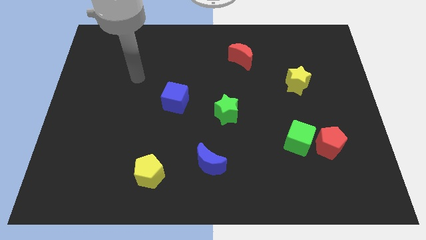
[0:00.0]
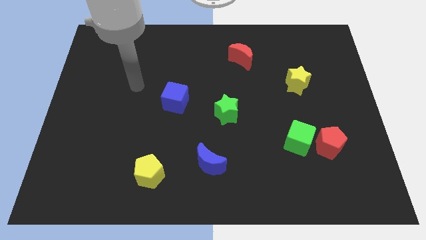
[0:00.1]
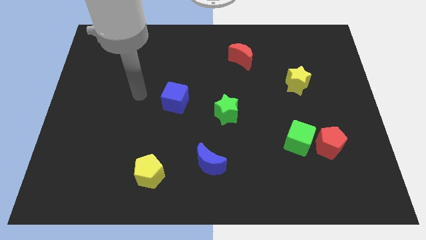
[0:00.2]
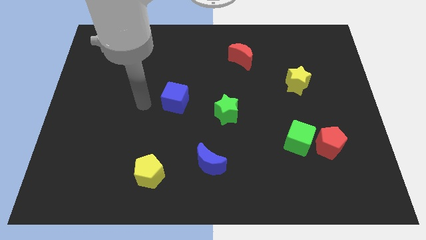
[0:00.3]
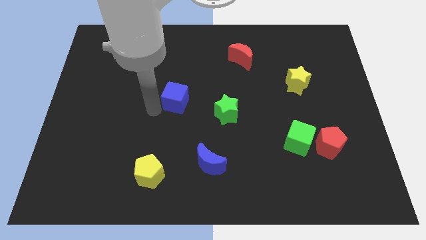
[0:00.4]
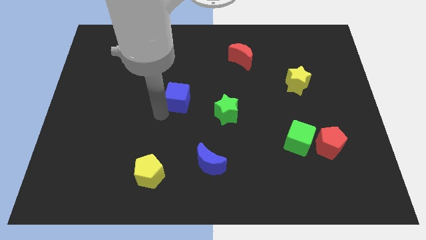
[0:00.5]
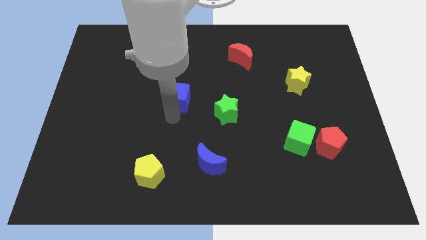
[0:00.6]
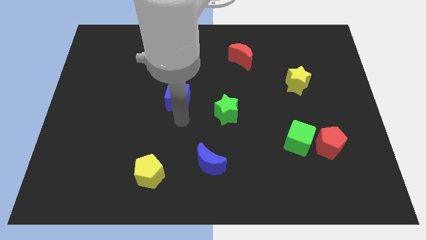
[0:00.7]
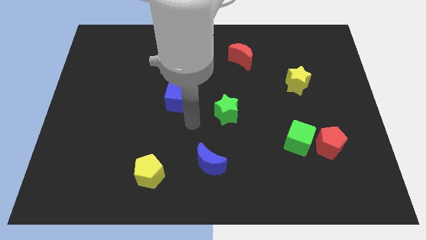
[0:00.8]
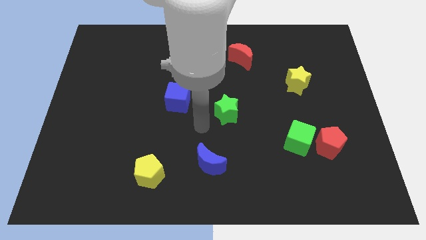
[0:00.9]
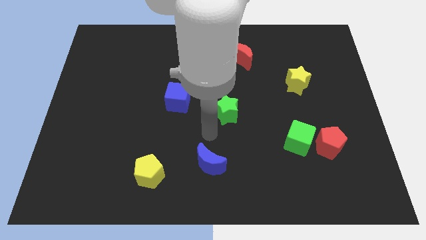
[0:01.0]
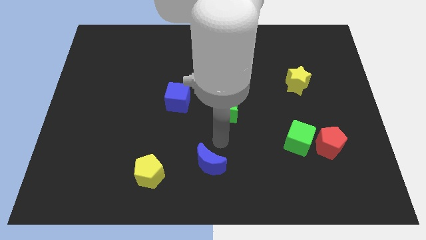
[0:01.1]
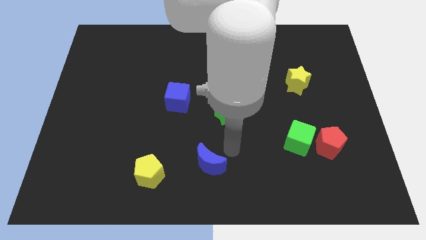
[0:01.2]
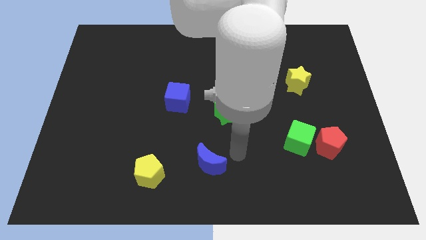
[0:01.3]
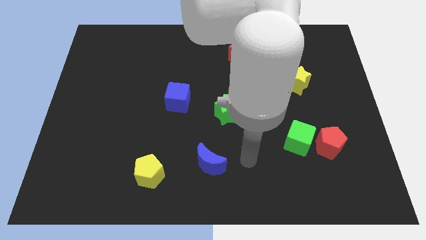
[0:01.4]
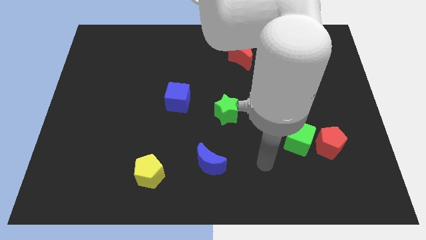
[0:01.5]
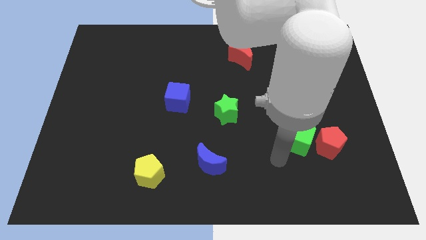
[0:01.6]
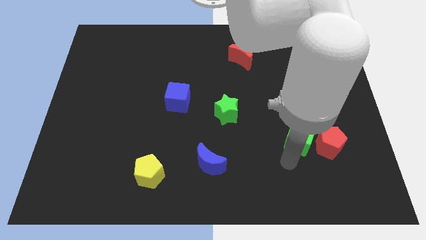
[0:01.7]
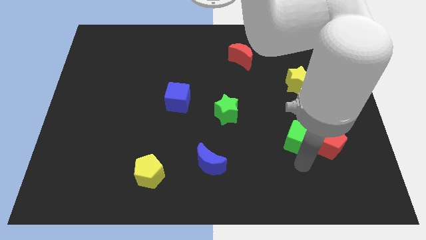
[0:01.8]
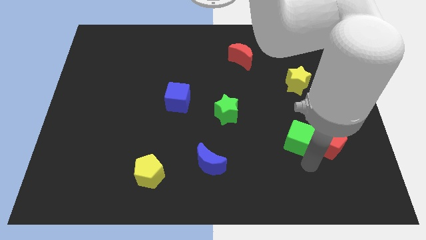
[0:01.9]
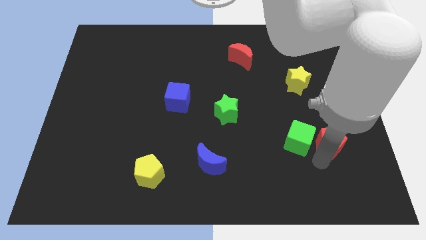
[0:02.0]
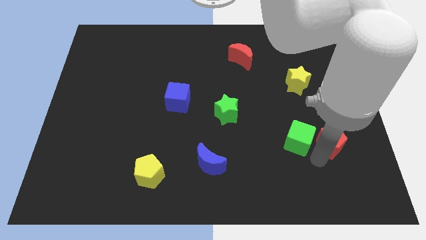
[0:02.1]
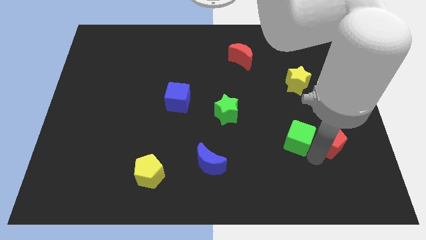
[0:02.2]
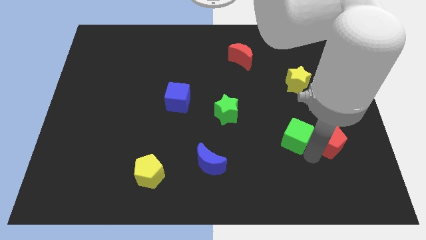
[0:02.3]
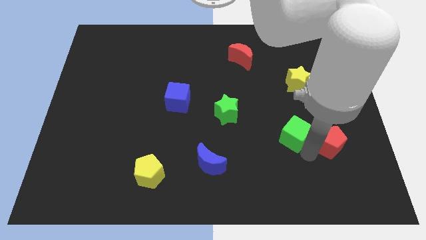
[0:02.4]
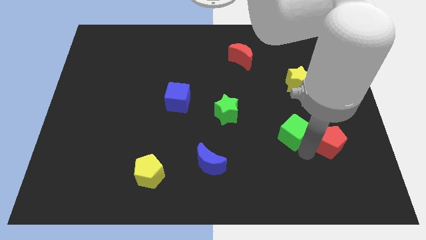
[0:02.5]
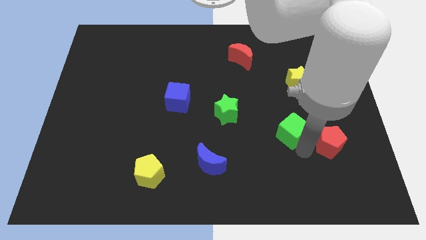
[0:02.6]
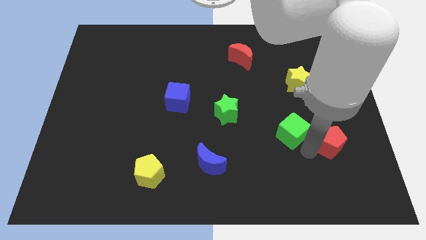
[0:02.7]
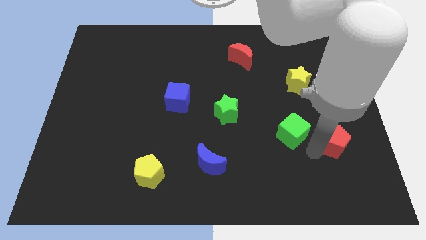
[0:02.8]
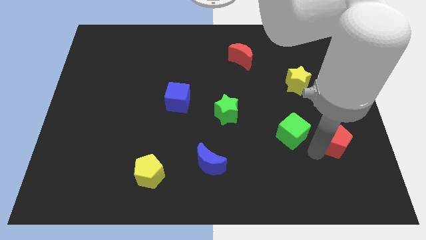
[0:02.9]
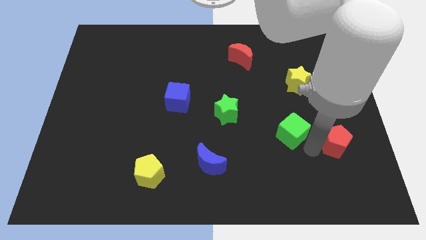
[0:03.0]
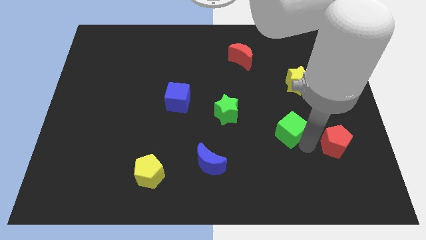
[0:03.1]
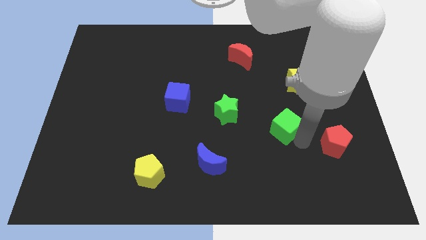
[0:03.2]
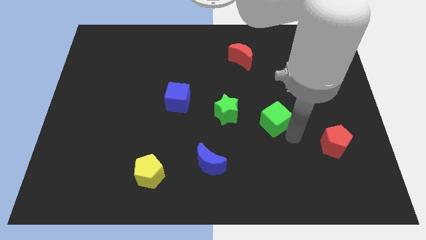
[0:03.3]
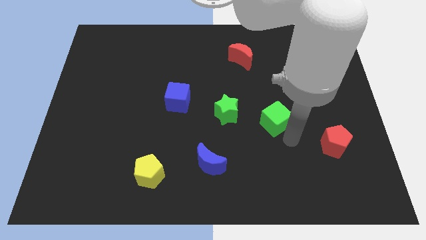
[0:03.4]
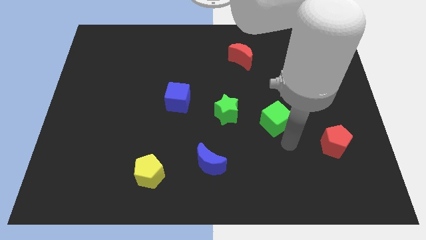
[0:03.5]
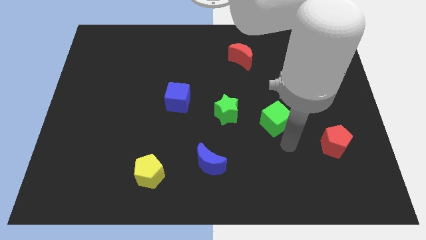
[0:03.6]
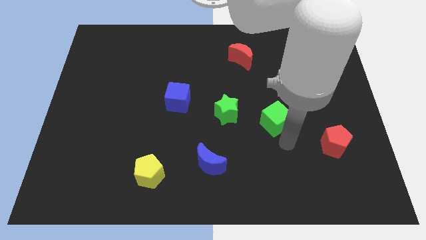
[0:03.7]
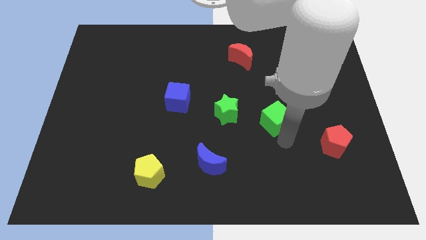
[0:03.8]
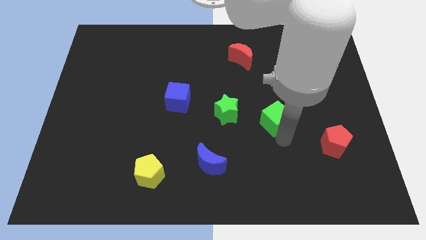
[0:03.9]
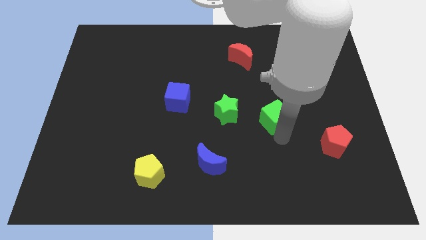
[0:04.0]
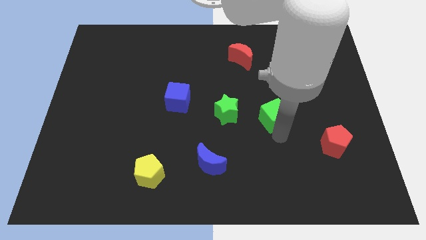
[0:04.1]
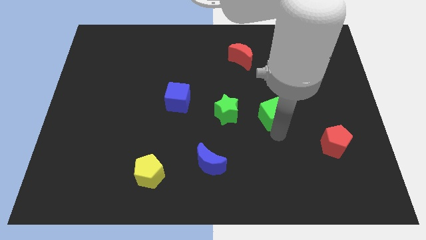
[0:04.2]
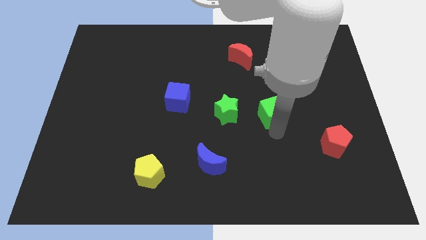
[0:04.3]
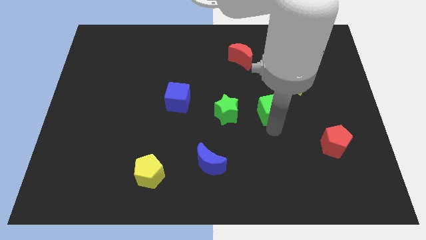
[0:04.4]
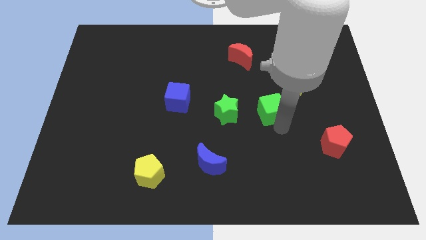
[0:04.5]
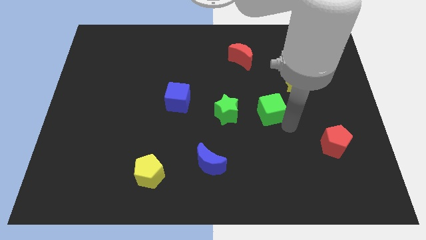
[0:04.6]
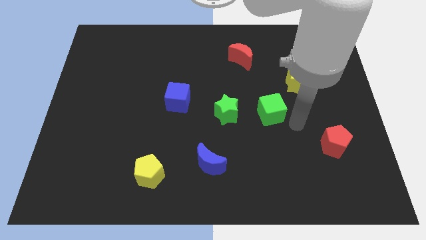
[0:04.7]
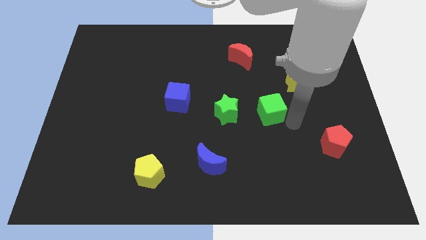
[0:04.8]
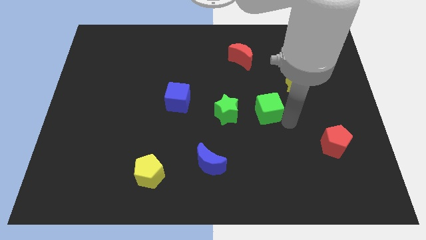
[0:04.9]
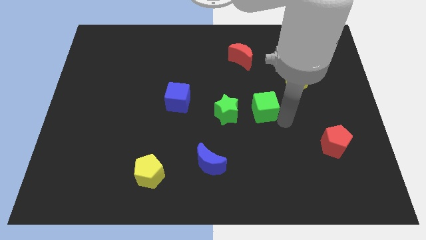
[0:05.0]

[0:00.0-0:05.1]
move the green cube to the center

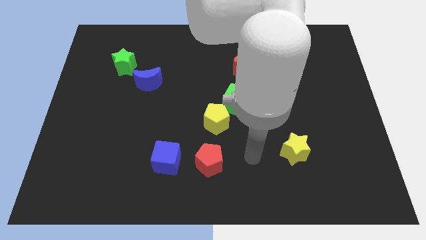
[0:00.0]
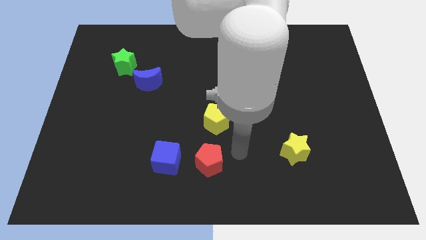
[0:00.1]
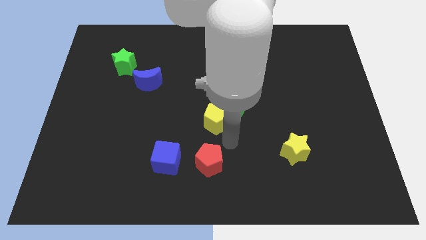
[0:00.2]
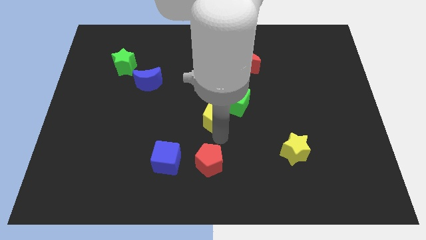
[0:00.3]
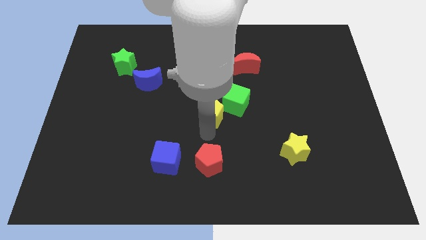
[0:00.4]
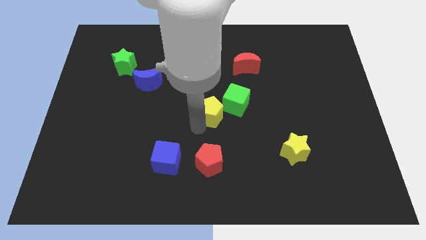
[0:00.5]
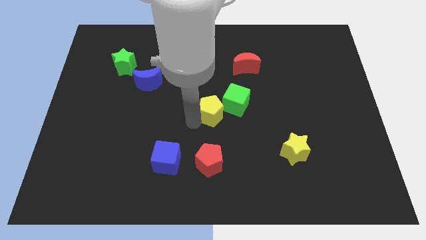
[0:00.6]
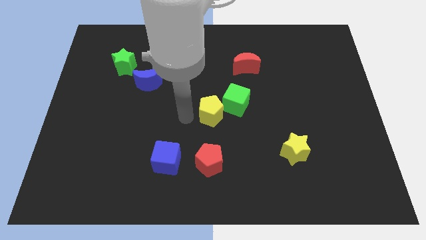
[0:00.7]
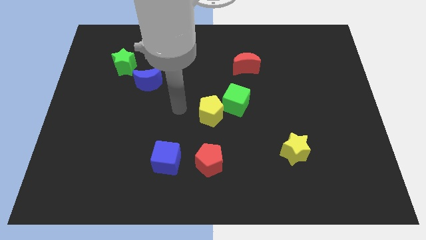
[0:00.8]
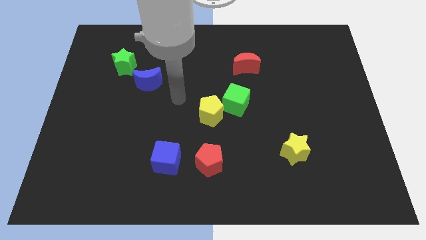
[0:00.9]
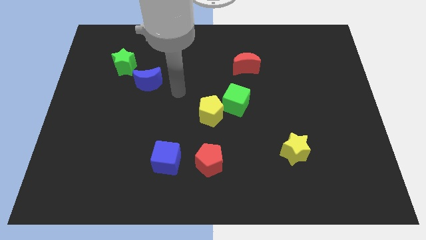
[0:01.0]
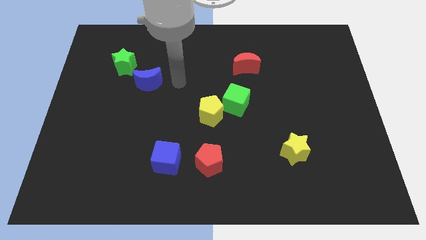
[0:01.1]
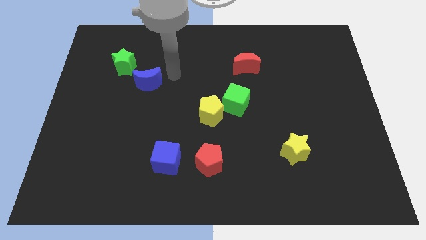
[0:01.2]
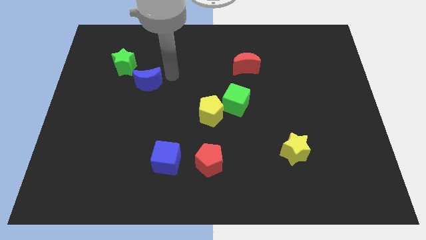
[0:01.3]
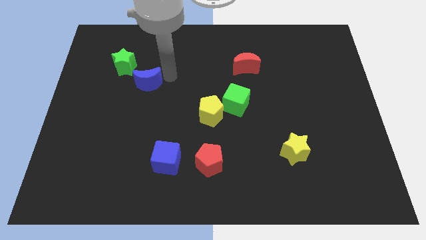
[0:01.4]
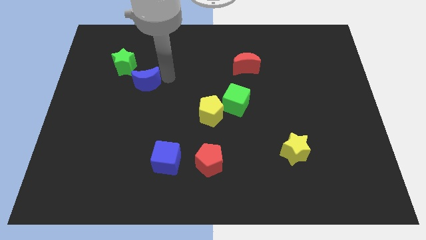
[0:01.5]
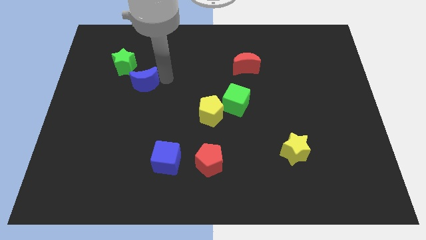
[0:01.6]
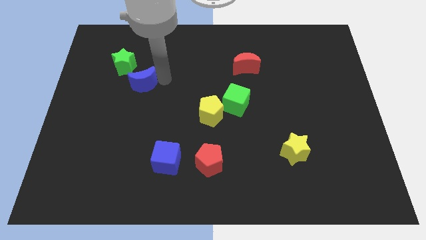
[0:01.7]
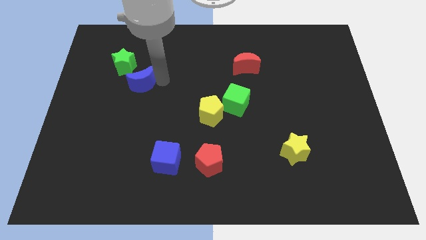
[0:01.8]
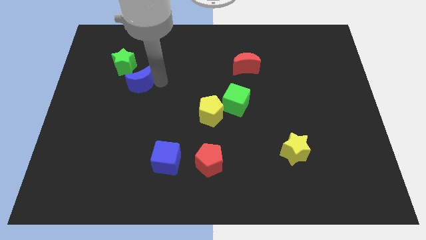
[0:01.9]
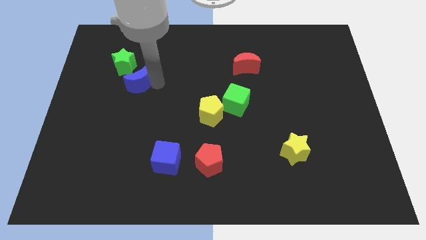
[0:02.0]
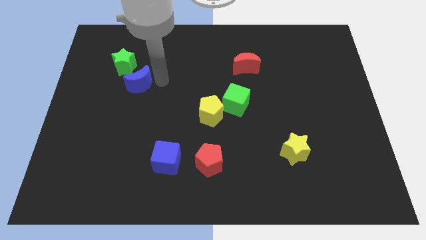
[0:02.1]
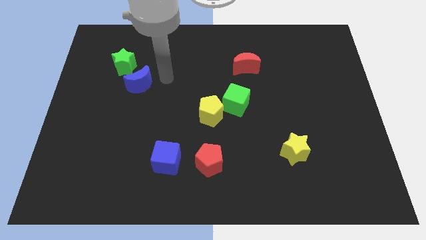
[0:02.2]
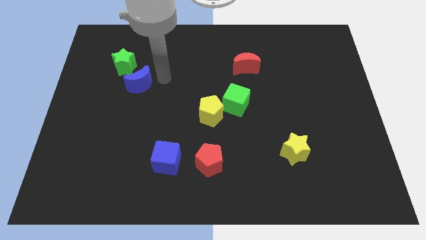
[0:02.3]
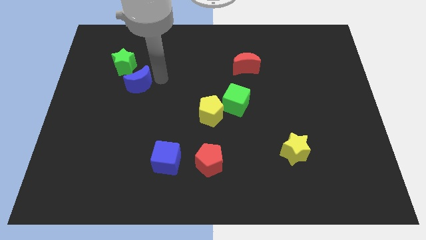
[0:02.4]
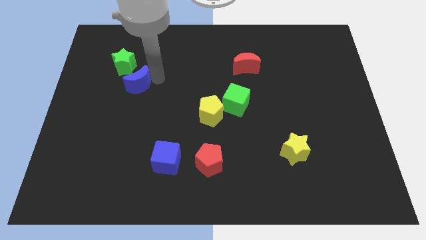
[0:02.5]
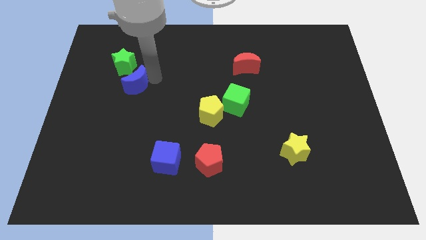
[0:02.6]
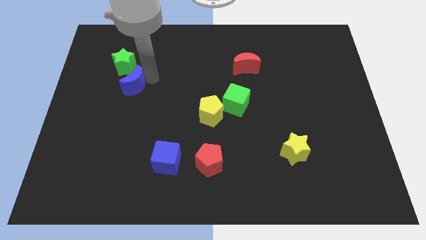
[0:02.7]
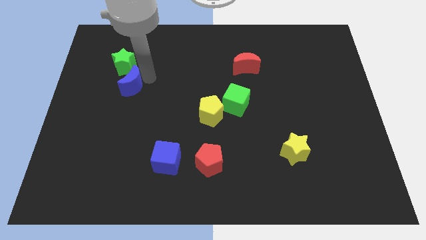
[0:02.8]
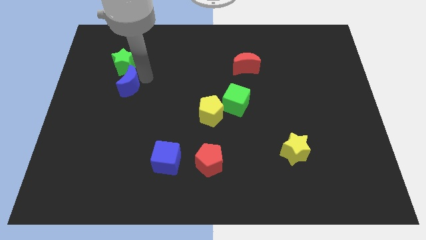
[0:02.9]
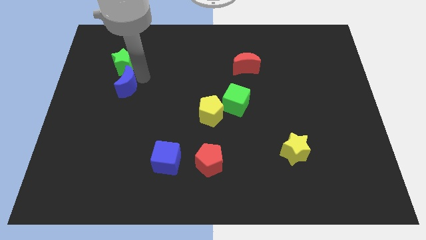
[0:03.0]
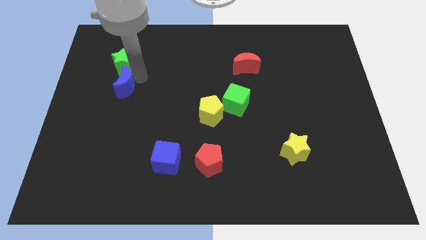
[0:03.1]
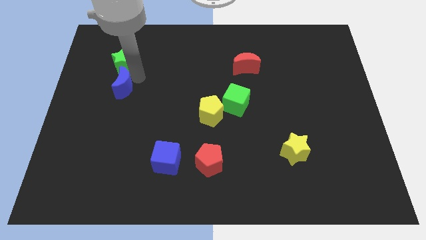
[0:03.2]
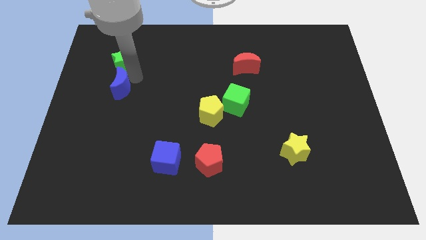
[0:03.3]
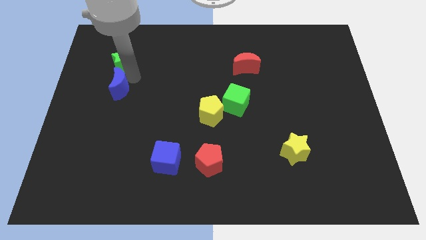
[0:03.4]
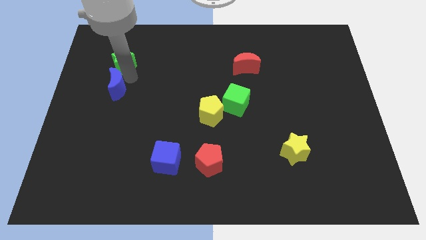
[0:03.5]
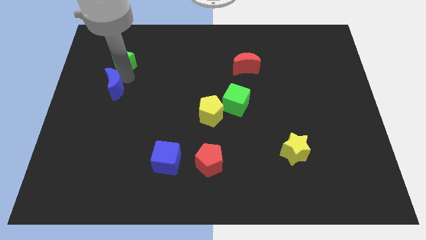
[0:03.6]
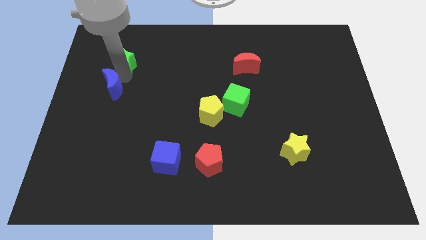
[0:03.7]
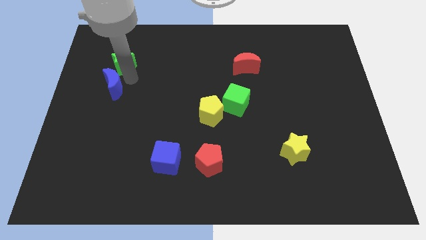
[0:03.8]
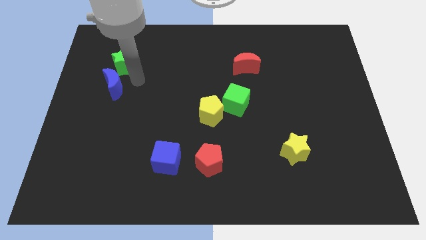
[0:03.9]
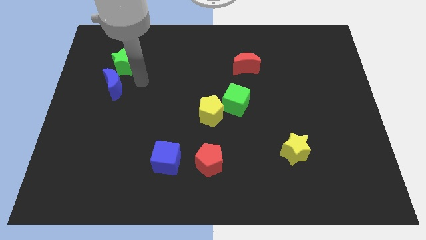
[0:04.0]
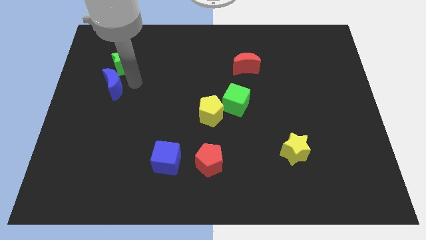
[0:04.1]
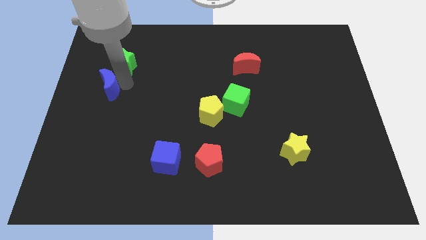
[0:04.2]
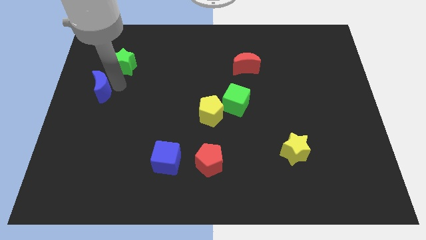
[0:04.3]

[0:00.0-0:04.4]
put the blue moon to the left side
